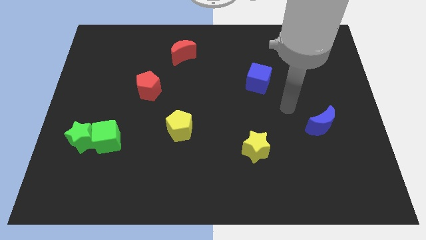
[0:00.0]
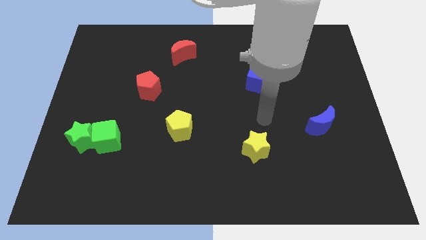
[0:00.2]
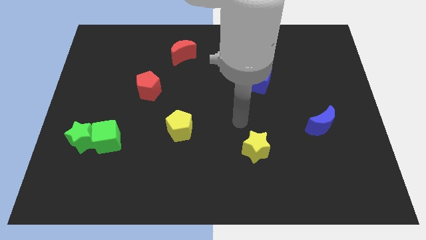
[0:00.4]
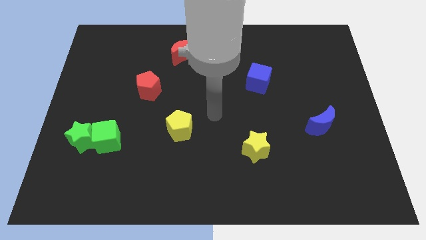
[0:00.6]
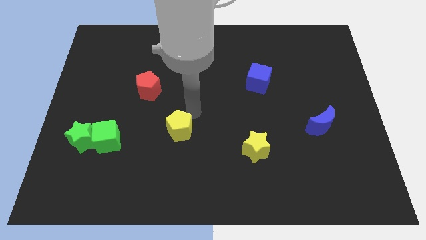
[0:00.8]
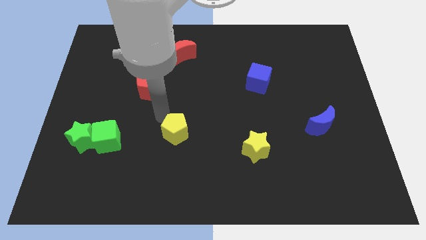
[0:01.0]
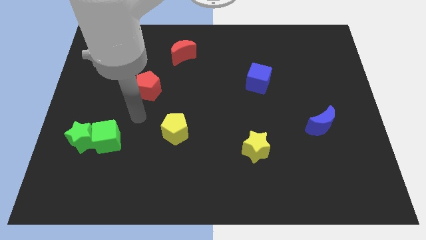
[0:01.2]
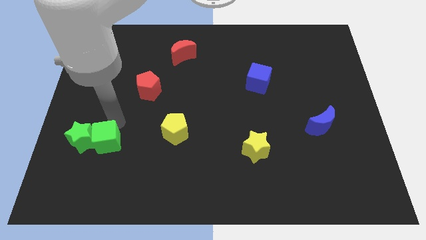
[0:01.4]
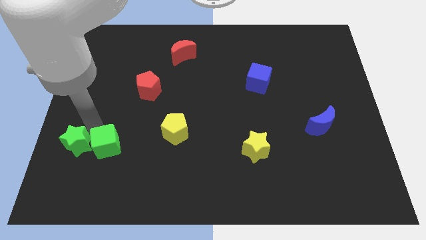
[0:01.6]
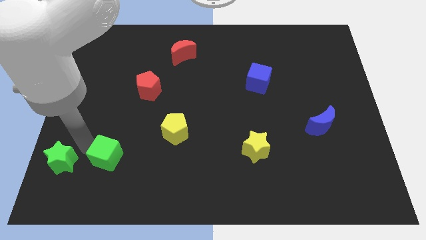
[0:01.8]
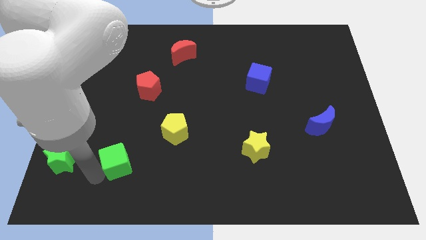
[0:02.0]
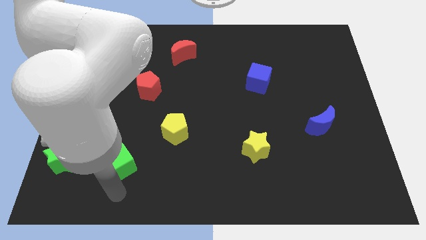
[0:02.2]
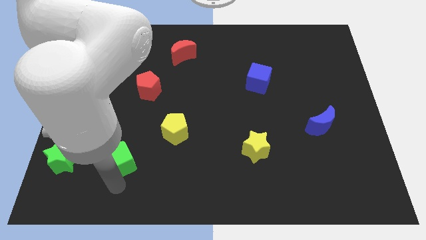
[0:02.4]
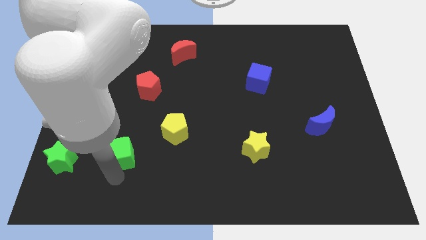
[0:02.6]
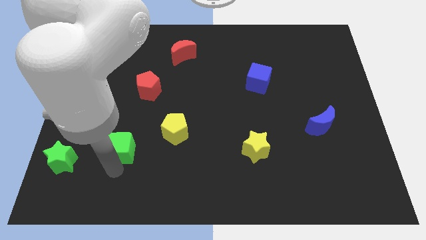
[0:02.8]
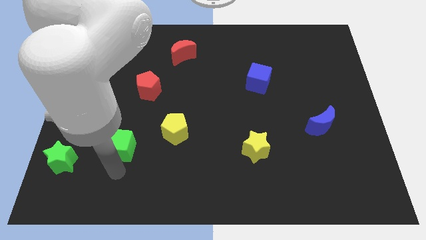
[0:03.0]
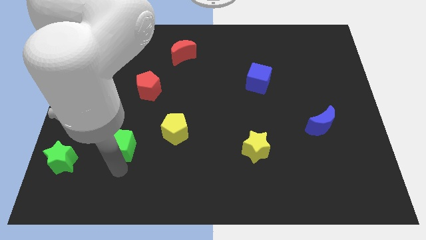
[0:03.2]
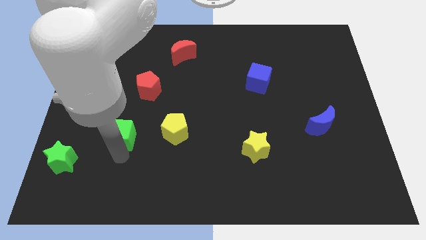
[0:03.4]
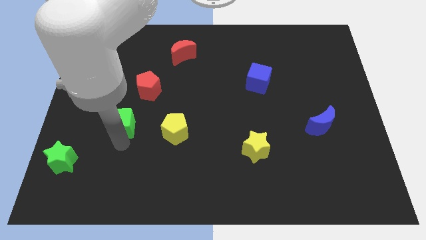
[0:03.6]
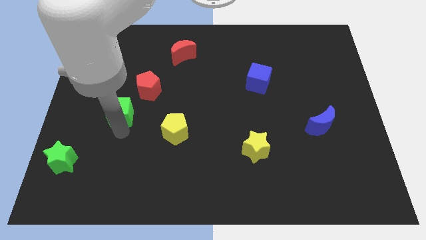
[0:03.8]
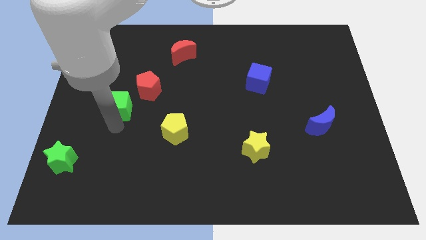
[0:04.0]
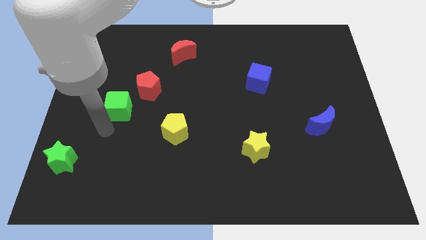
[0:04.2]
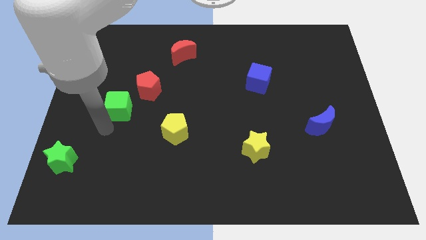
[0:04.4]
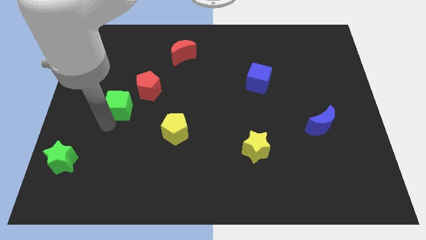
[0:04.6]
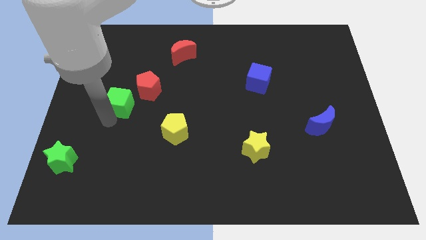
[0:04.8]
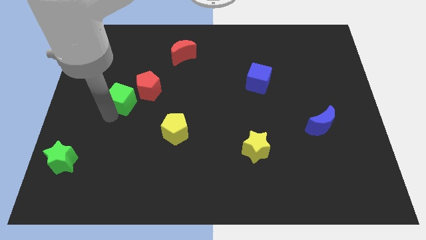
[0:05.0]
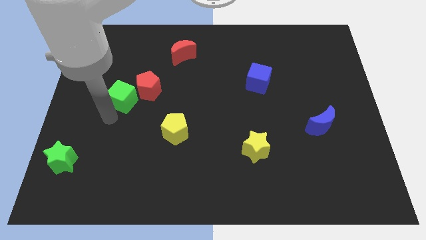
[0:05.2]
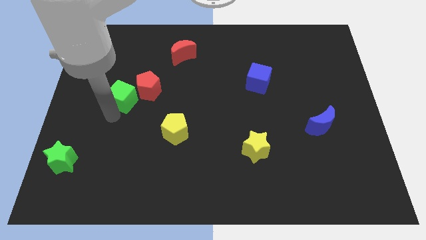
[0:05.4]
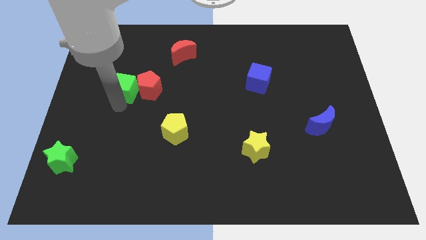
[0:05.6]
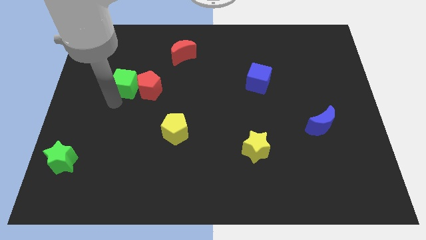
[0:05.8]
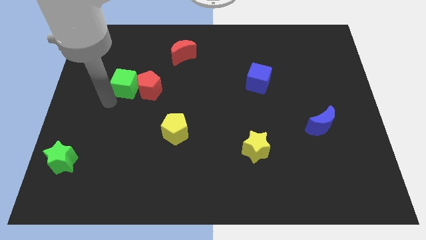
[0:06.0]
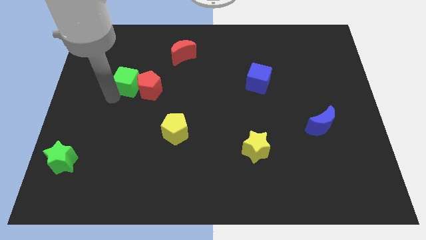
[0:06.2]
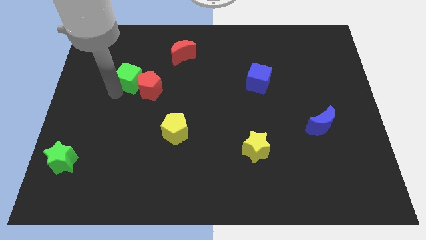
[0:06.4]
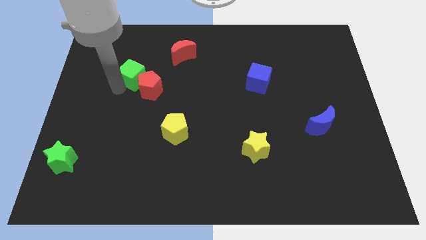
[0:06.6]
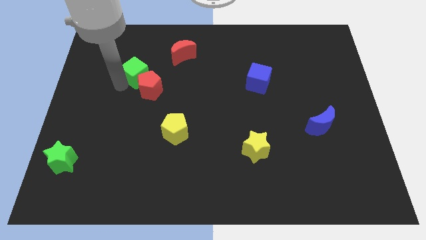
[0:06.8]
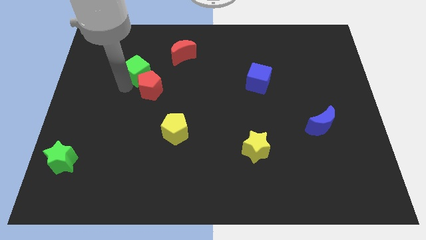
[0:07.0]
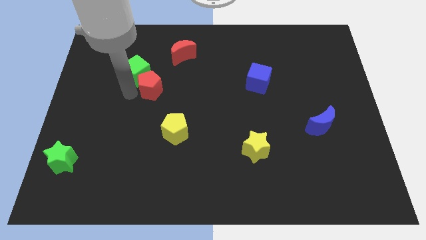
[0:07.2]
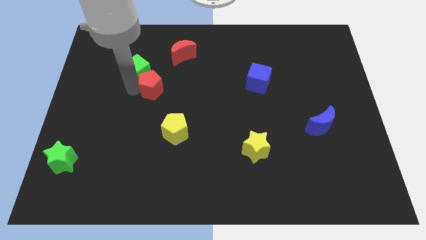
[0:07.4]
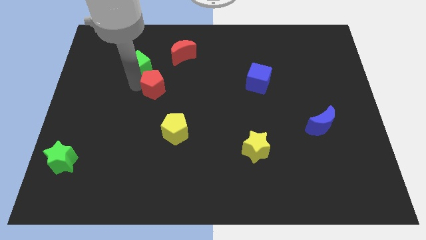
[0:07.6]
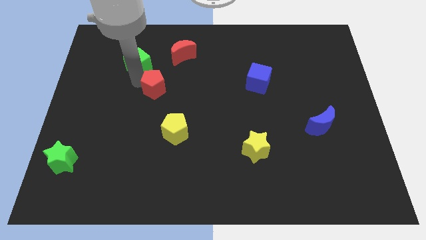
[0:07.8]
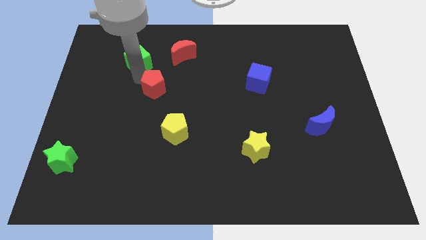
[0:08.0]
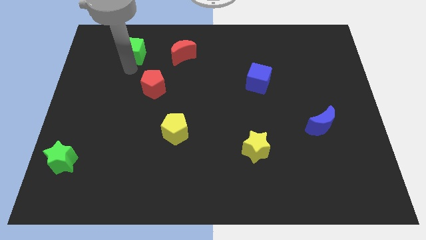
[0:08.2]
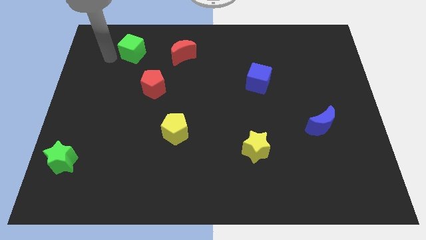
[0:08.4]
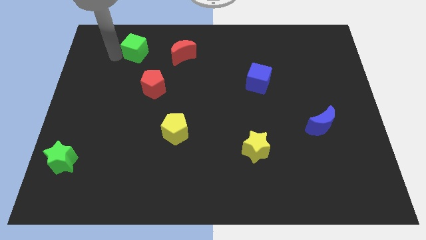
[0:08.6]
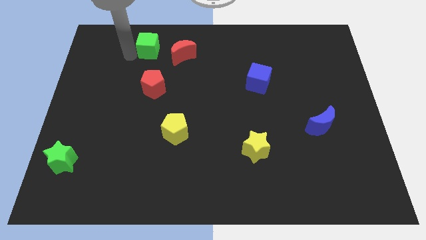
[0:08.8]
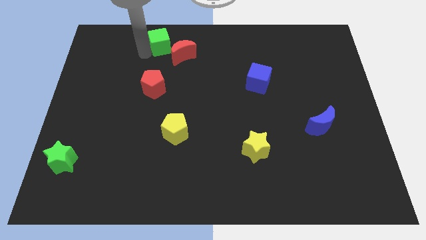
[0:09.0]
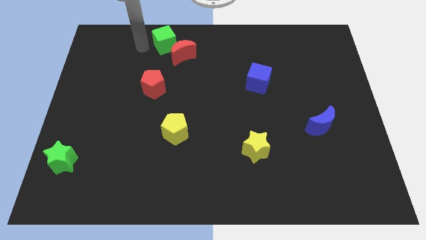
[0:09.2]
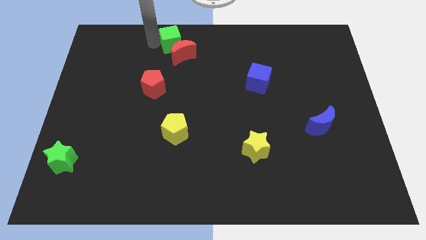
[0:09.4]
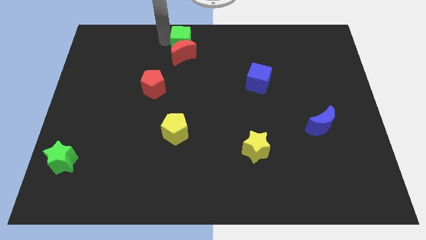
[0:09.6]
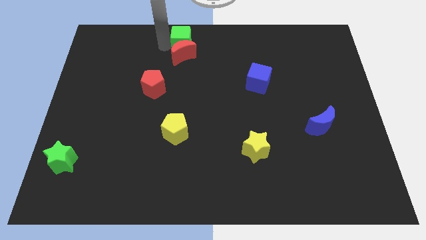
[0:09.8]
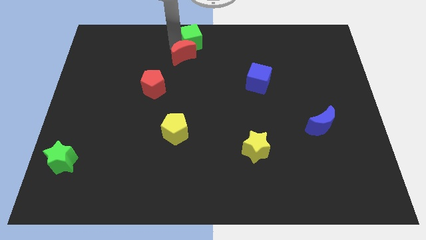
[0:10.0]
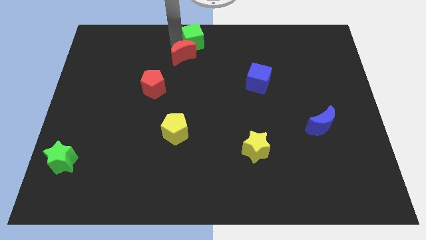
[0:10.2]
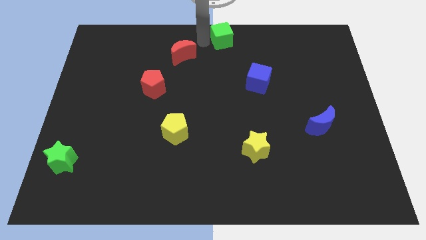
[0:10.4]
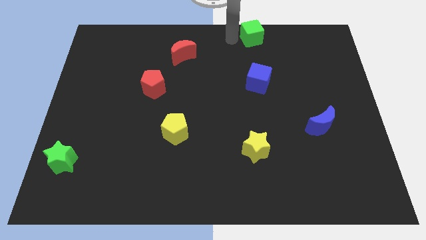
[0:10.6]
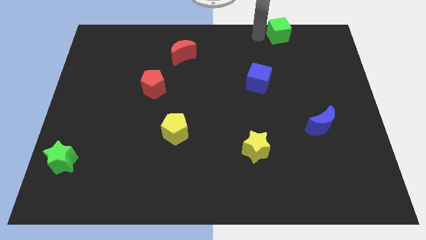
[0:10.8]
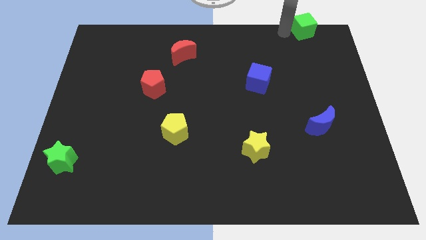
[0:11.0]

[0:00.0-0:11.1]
slide the green cube to the upper right corner
